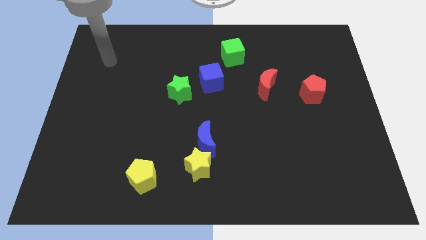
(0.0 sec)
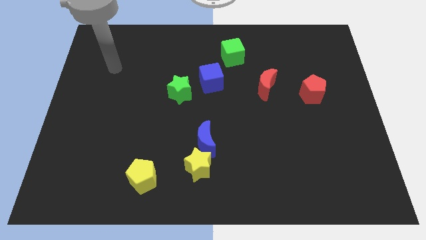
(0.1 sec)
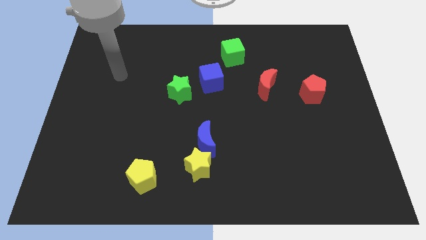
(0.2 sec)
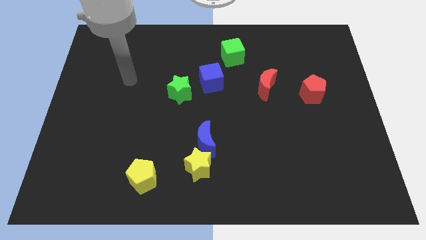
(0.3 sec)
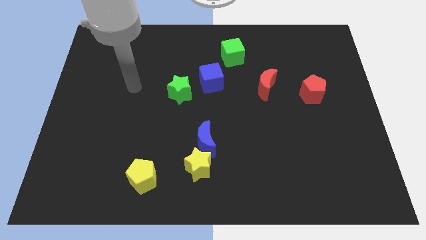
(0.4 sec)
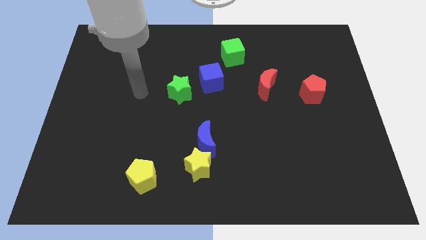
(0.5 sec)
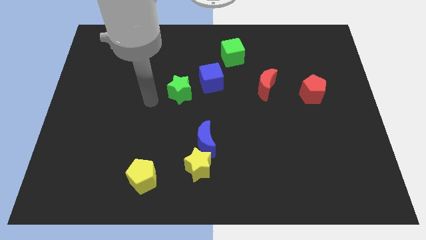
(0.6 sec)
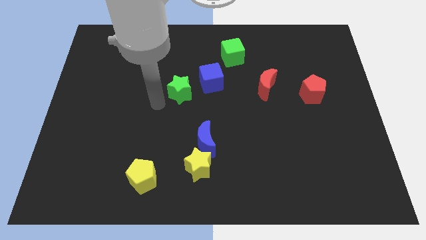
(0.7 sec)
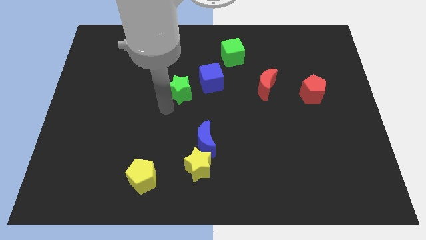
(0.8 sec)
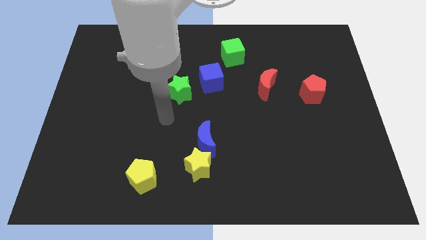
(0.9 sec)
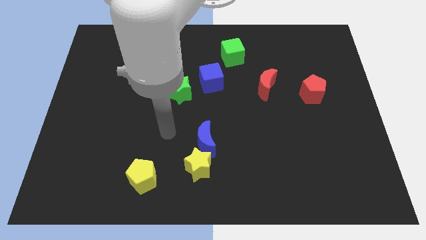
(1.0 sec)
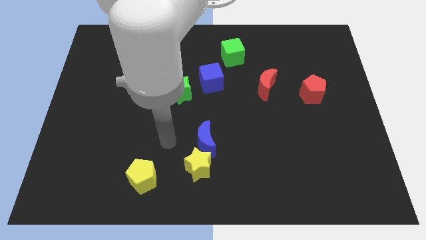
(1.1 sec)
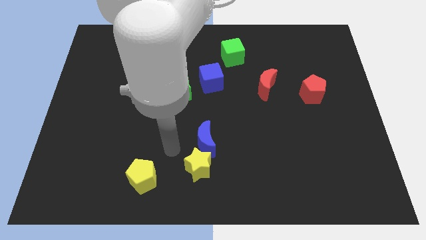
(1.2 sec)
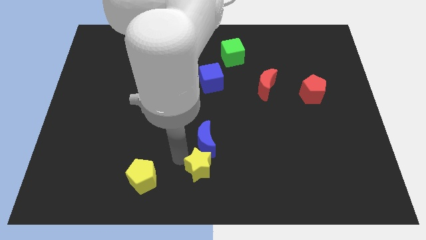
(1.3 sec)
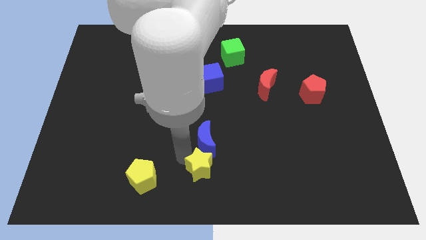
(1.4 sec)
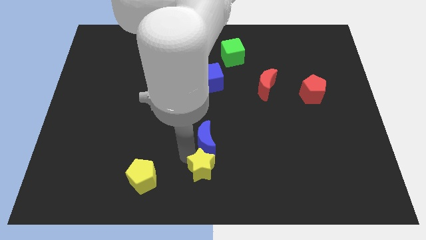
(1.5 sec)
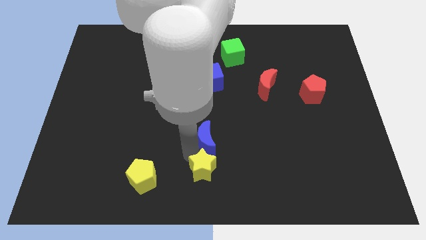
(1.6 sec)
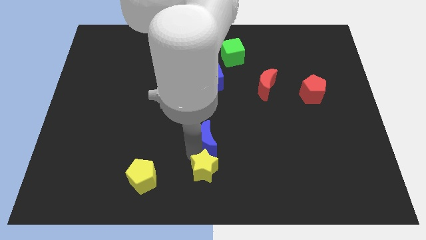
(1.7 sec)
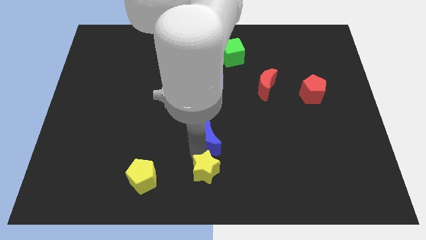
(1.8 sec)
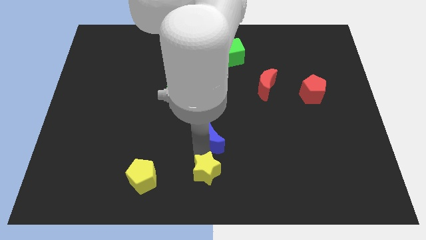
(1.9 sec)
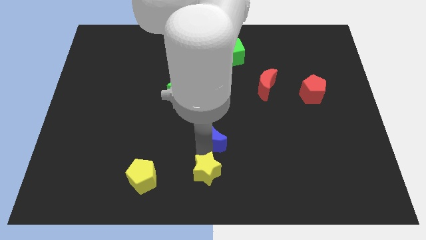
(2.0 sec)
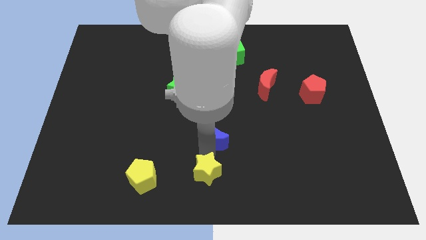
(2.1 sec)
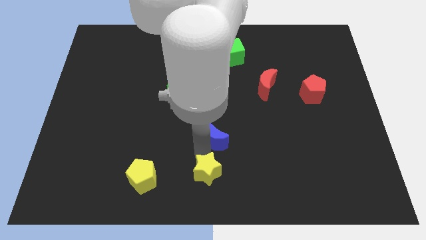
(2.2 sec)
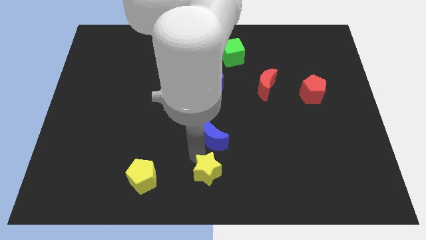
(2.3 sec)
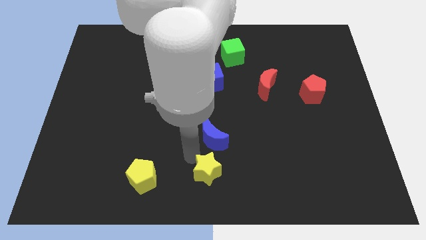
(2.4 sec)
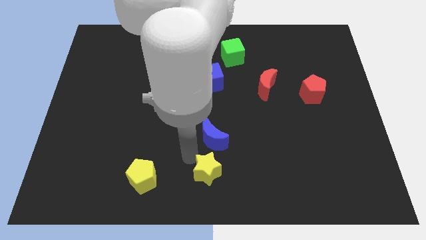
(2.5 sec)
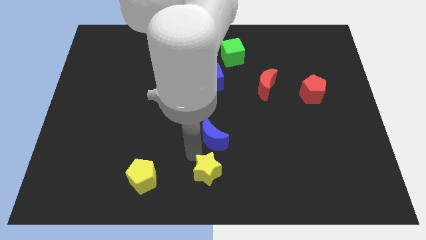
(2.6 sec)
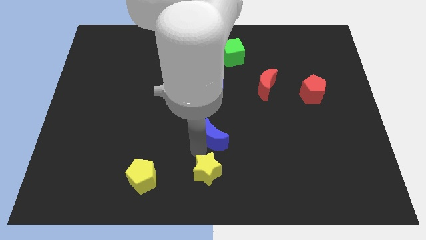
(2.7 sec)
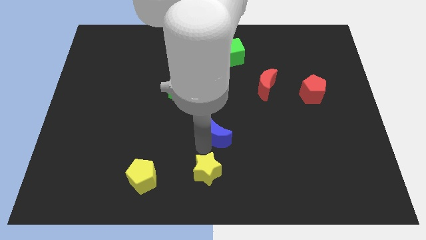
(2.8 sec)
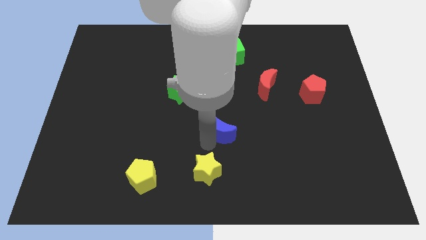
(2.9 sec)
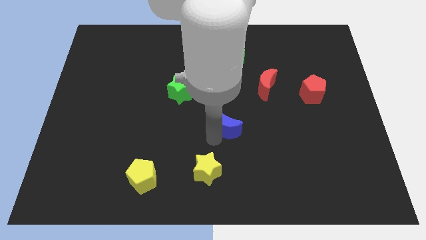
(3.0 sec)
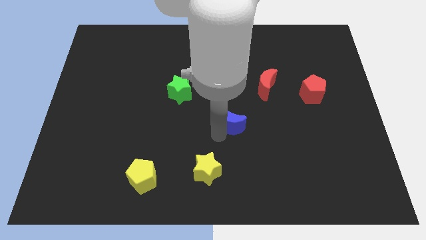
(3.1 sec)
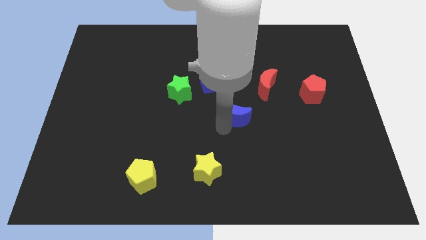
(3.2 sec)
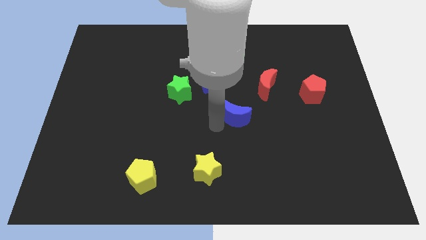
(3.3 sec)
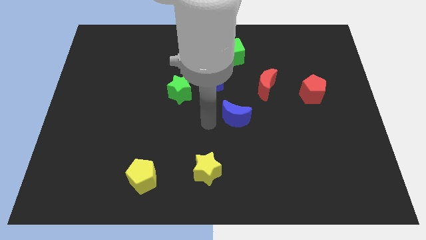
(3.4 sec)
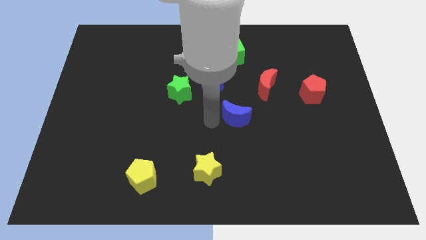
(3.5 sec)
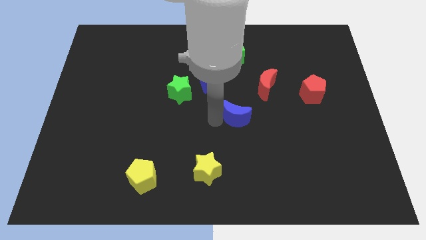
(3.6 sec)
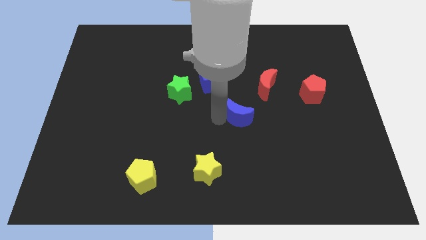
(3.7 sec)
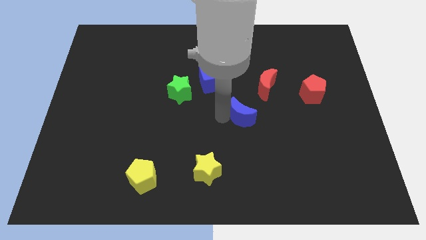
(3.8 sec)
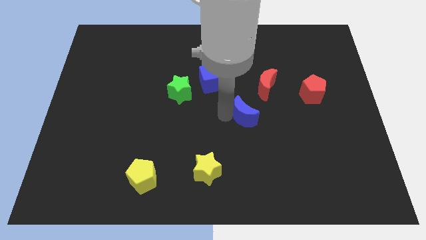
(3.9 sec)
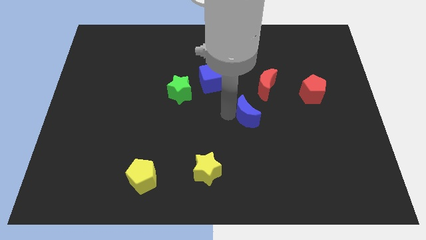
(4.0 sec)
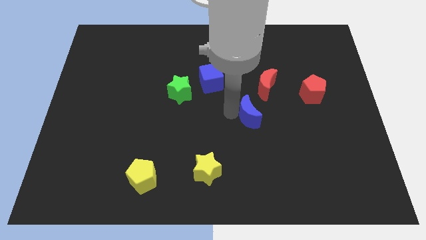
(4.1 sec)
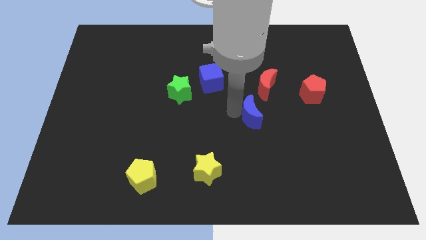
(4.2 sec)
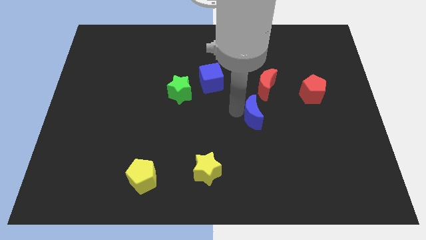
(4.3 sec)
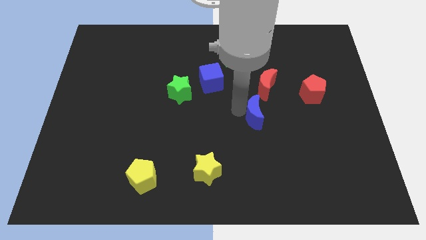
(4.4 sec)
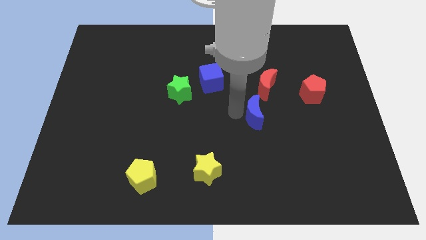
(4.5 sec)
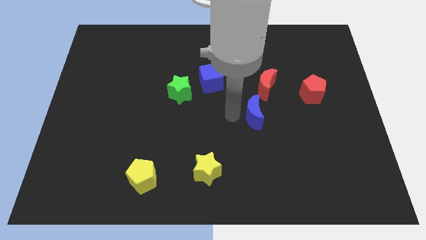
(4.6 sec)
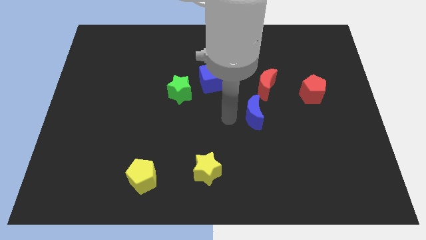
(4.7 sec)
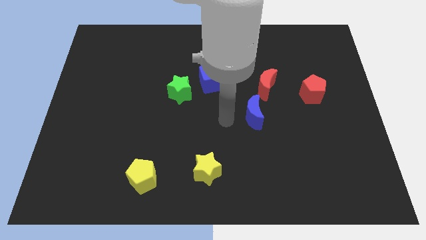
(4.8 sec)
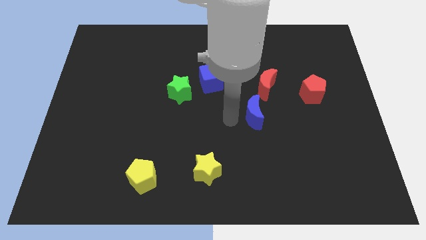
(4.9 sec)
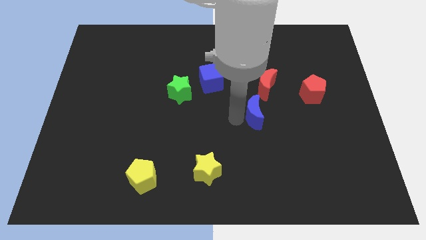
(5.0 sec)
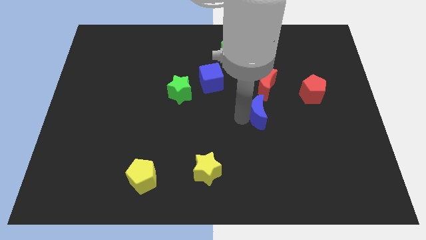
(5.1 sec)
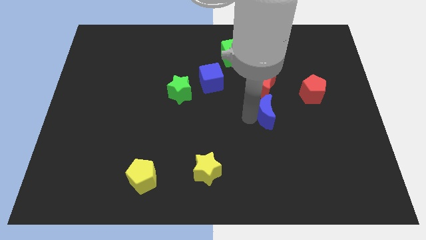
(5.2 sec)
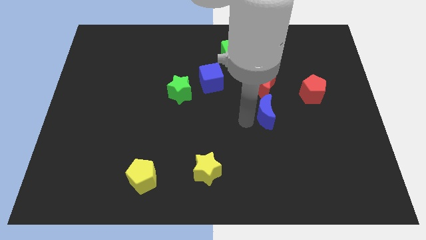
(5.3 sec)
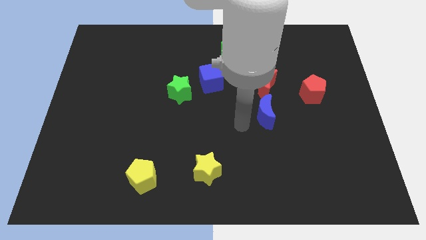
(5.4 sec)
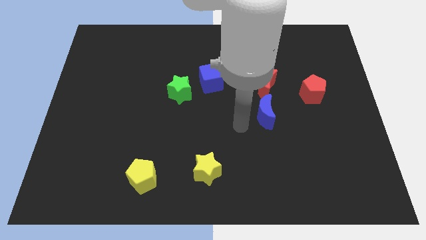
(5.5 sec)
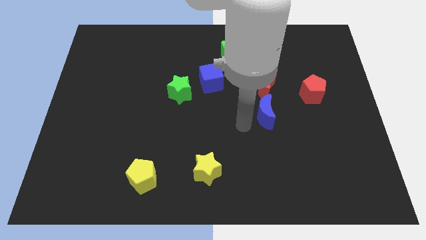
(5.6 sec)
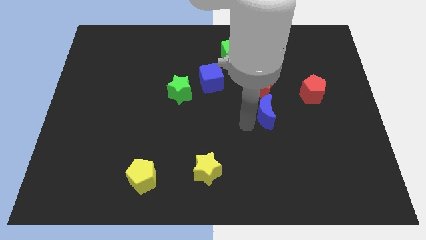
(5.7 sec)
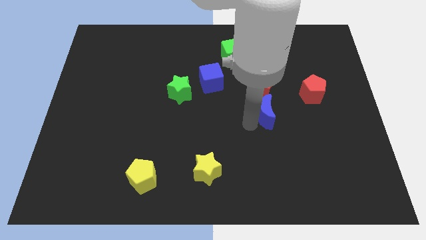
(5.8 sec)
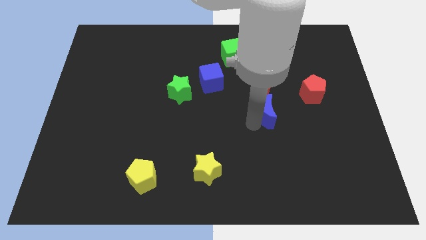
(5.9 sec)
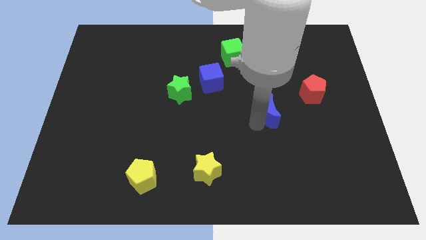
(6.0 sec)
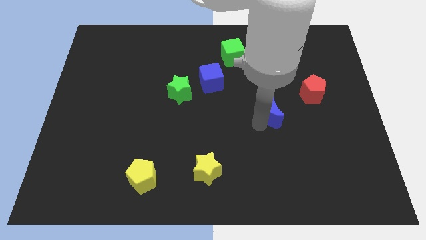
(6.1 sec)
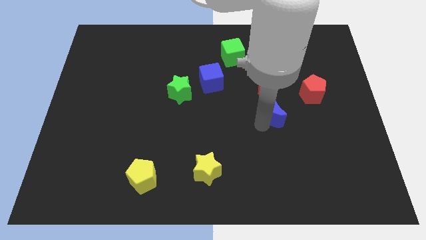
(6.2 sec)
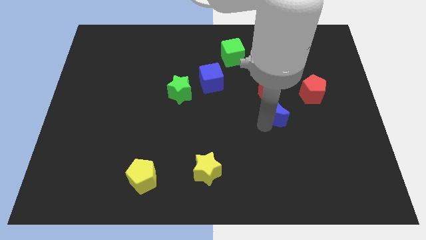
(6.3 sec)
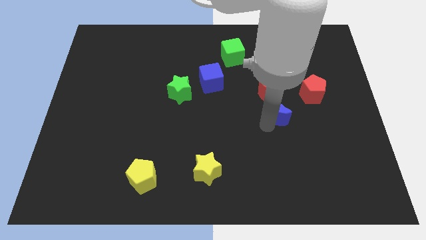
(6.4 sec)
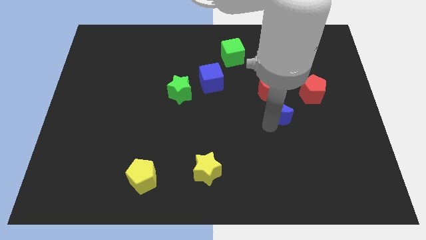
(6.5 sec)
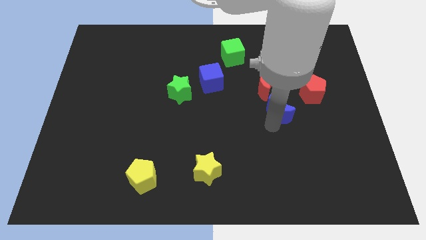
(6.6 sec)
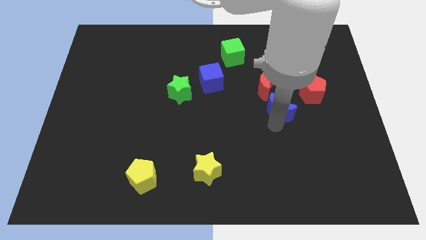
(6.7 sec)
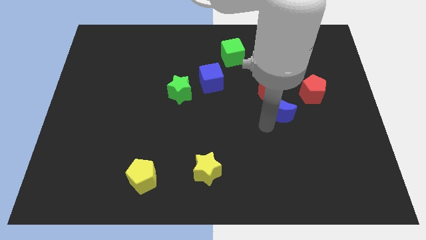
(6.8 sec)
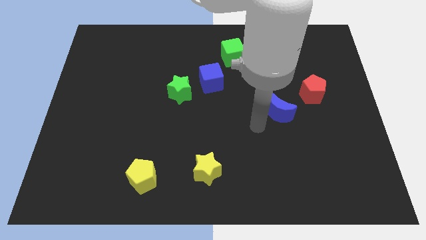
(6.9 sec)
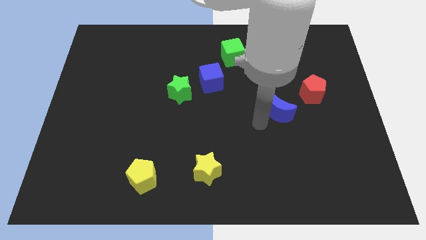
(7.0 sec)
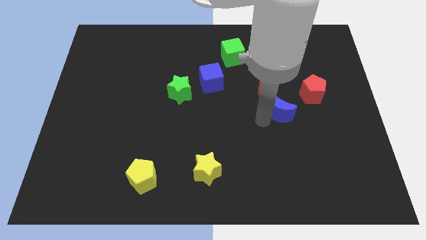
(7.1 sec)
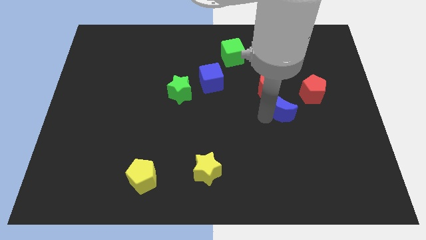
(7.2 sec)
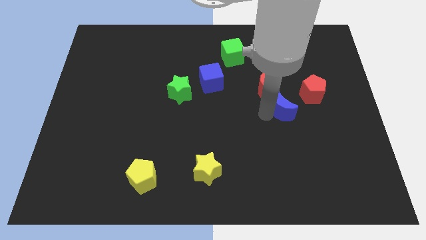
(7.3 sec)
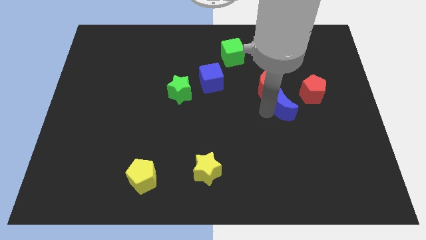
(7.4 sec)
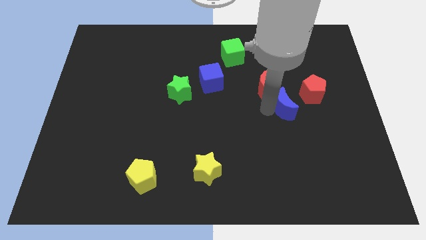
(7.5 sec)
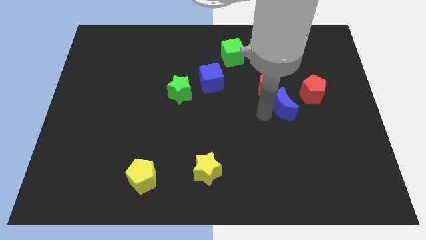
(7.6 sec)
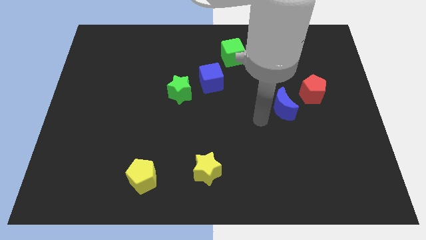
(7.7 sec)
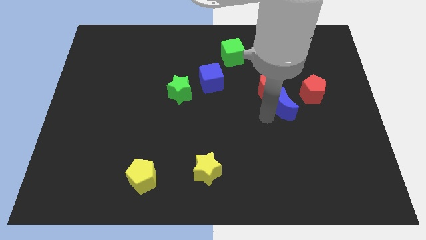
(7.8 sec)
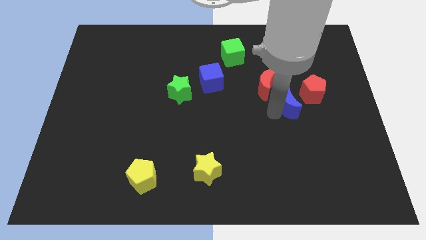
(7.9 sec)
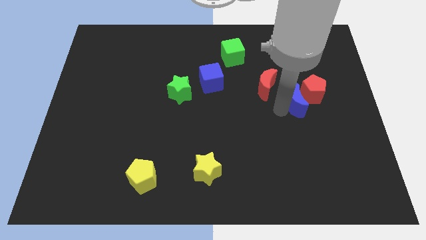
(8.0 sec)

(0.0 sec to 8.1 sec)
push the blue moon next to the red pentagon
